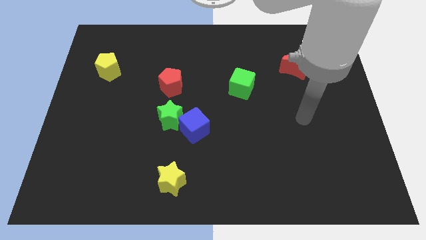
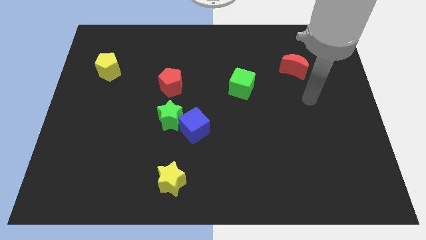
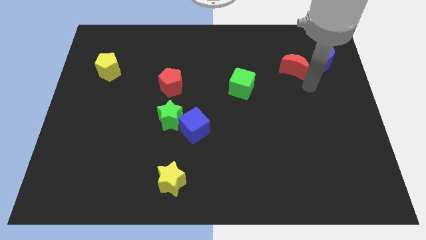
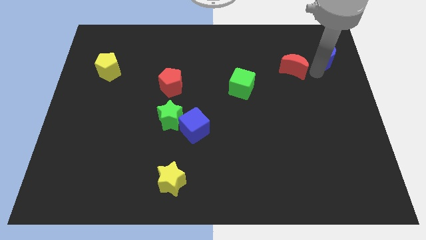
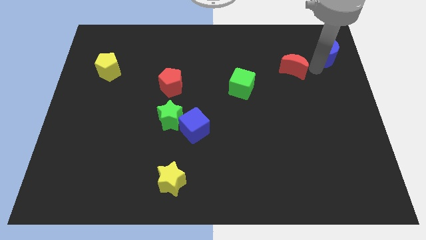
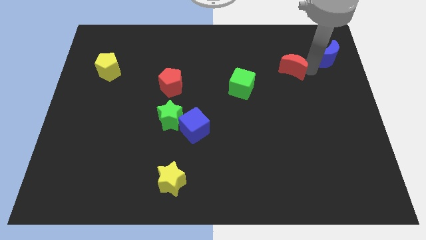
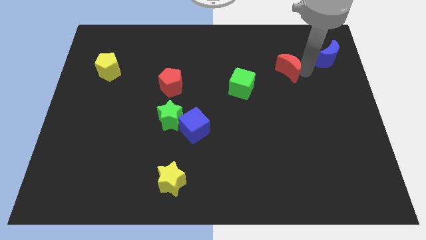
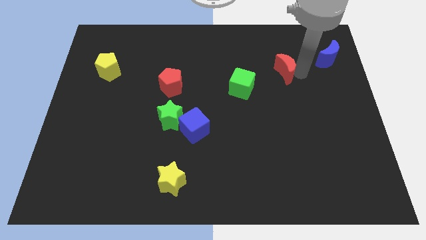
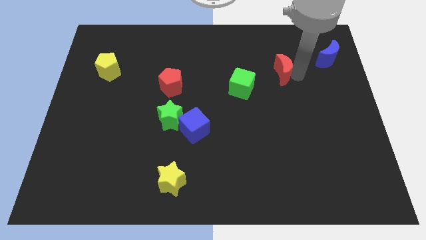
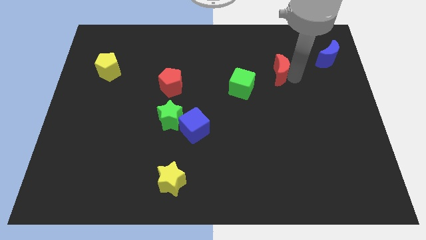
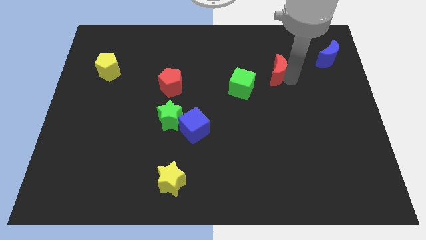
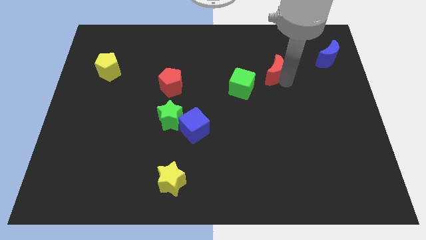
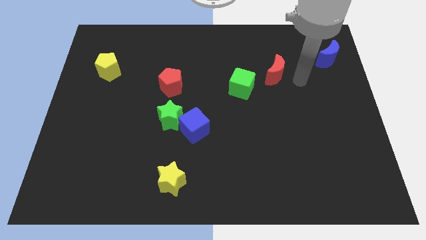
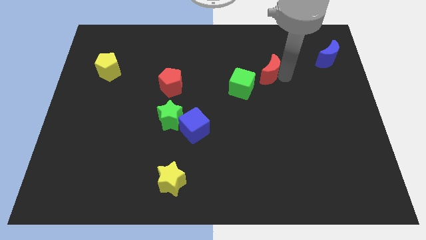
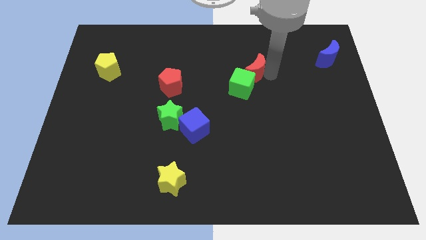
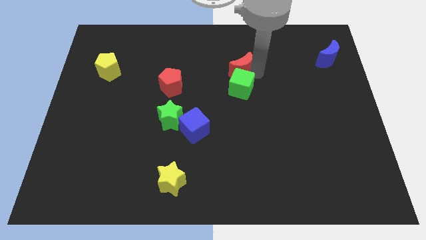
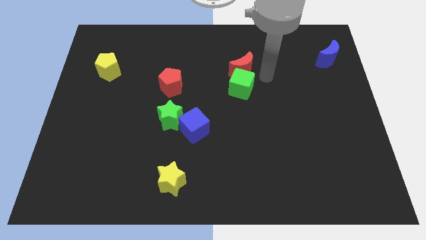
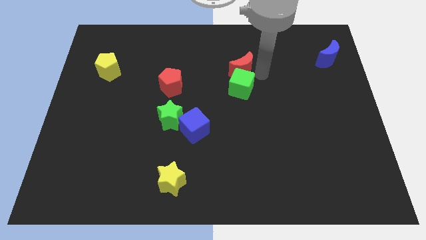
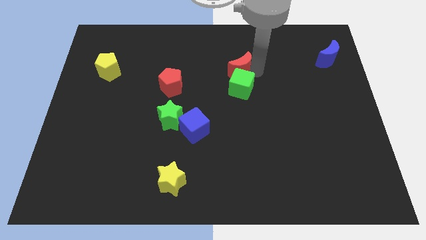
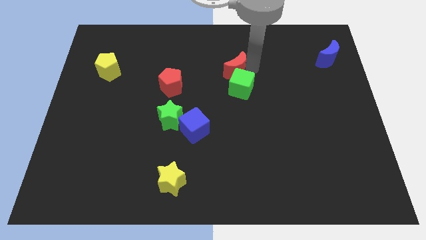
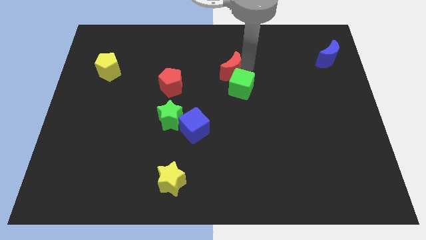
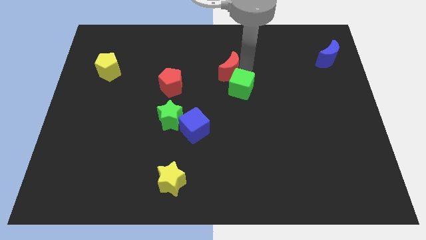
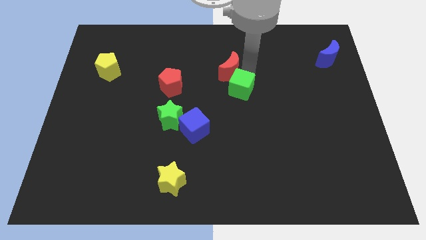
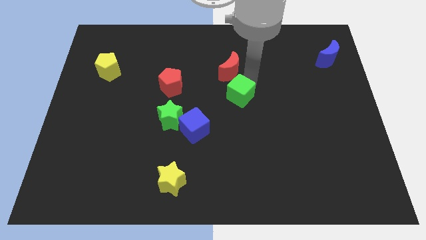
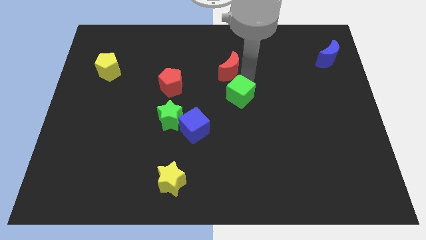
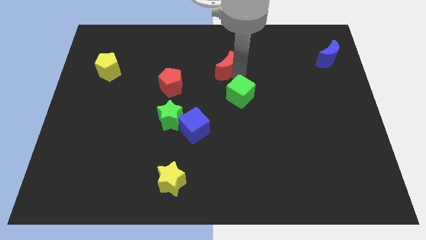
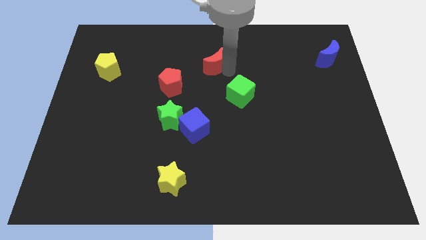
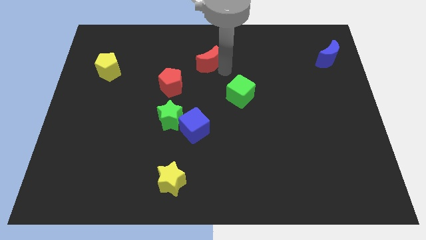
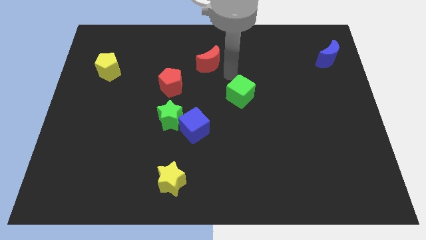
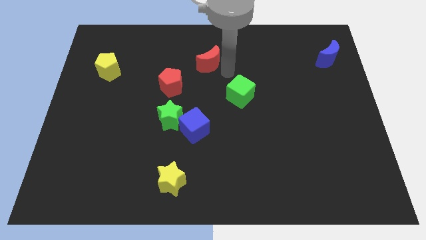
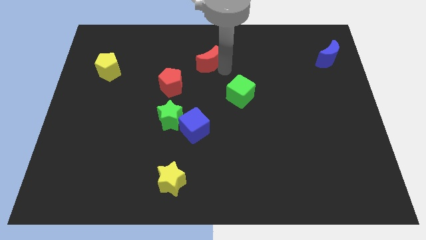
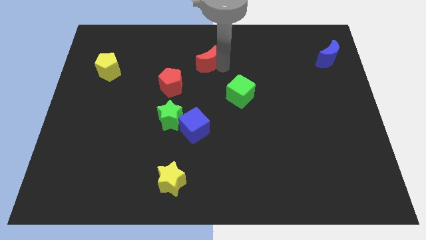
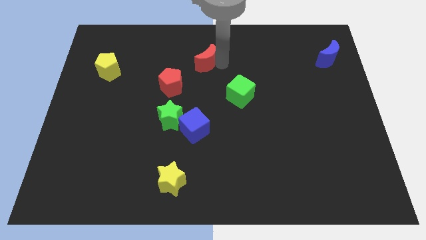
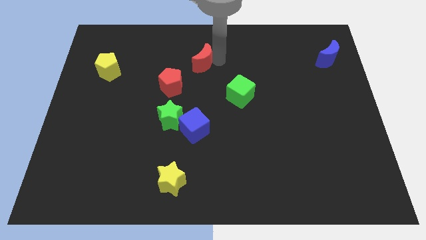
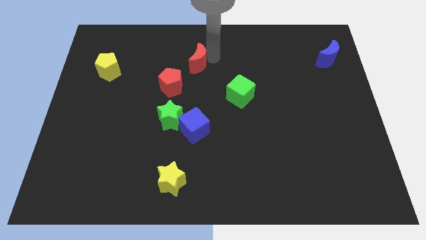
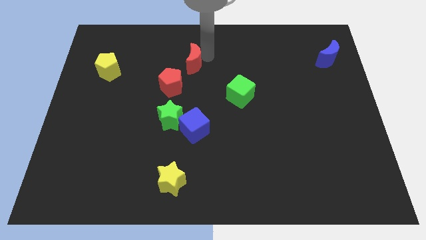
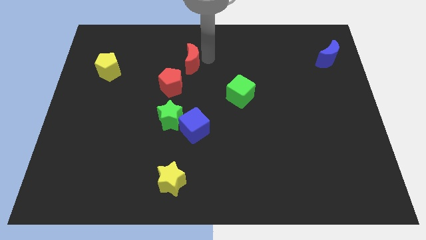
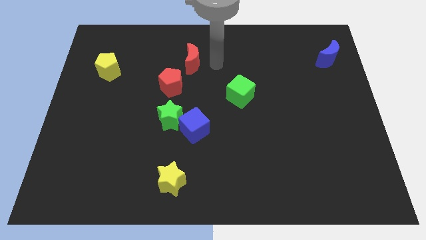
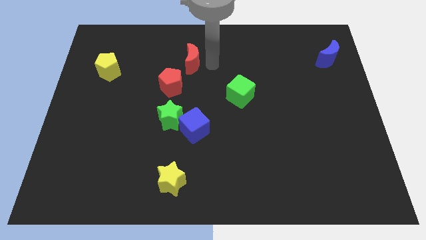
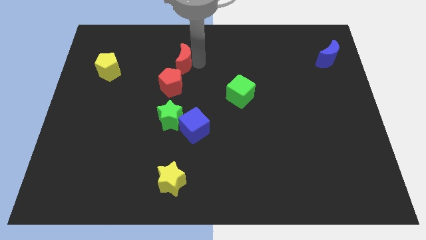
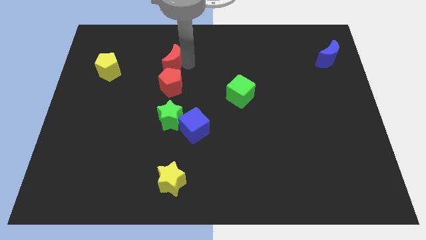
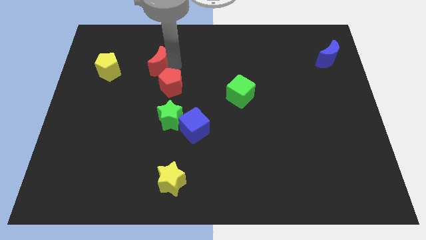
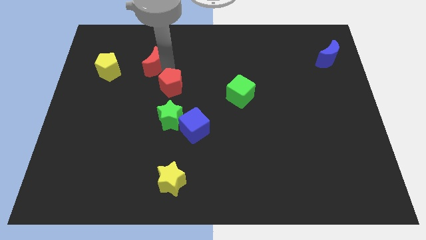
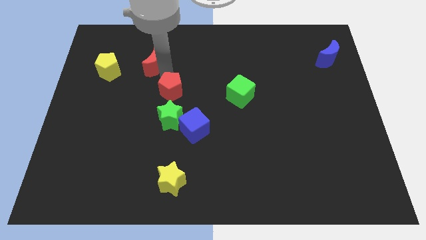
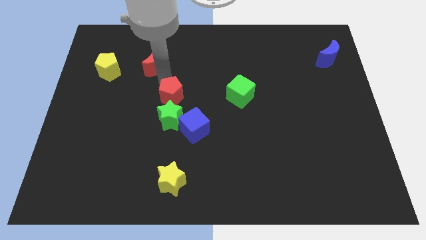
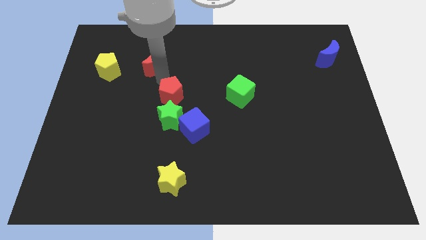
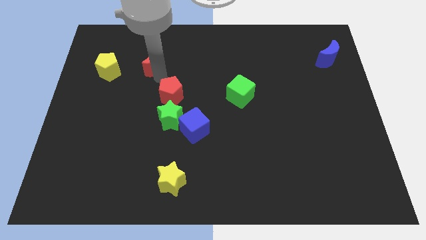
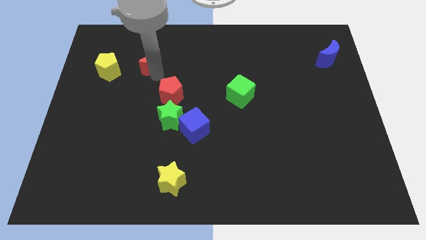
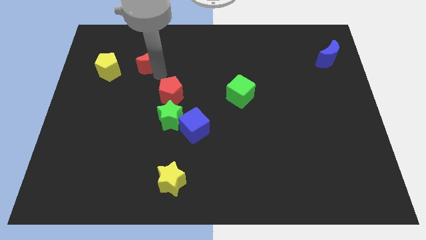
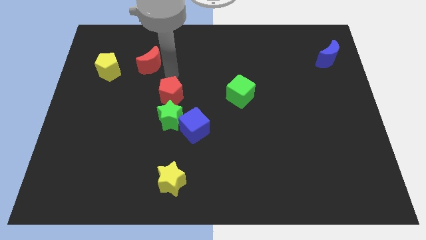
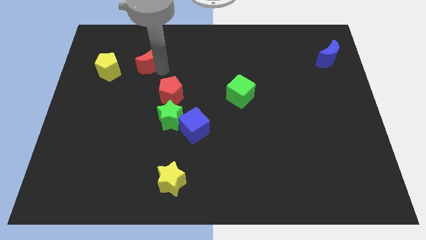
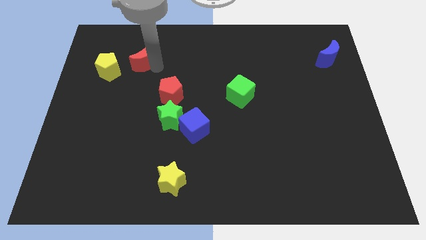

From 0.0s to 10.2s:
slide the red moon diagonally up and to the right of the yellow pentagon

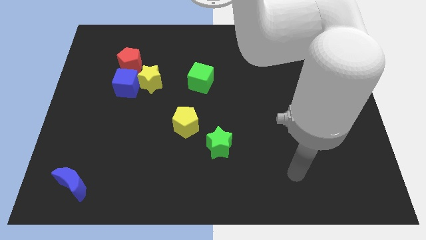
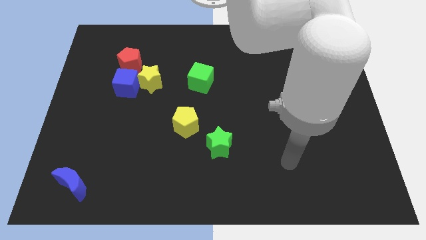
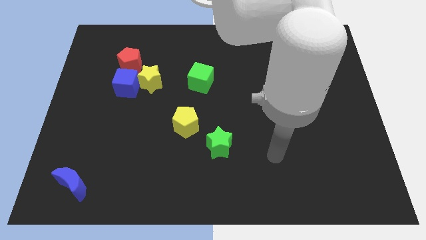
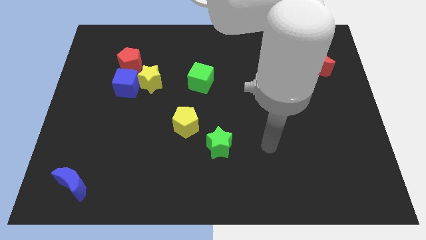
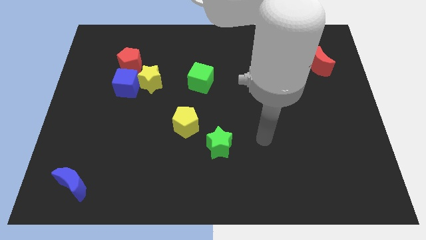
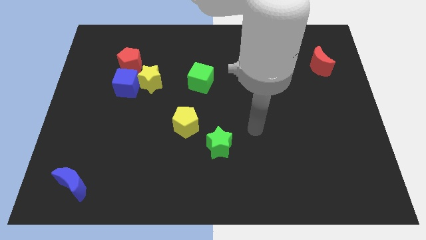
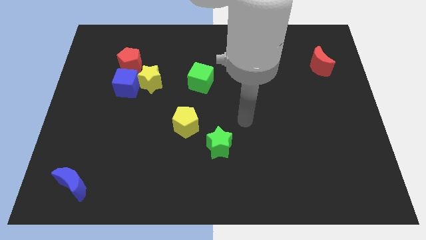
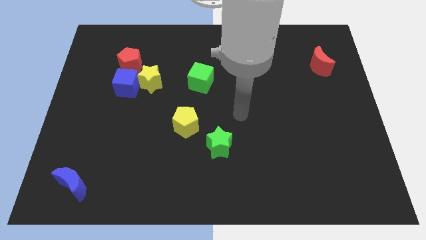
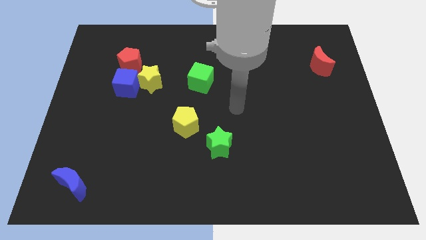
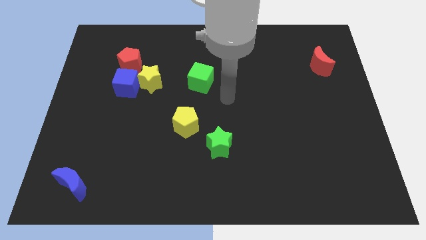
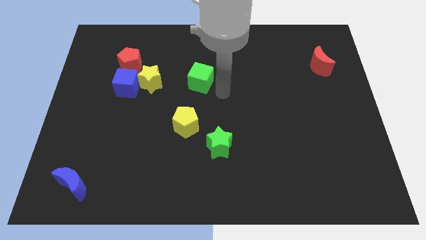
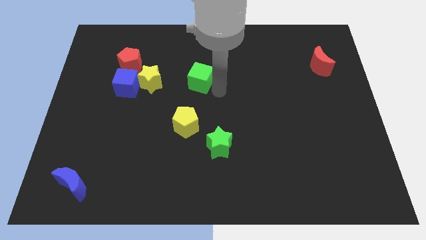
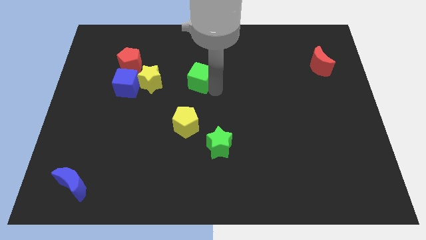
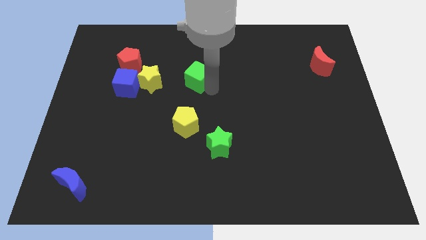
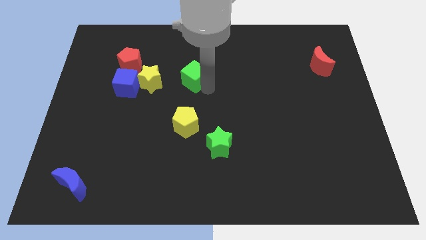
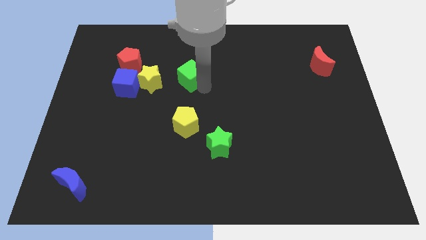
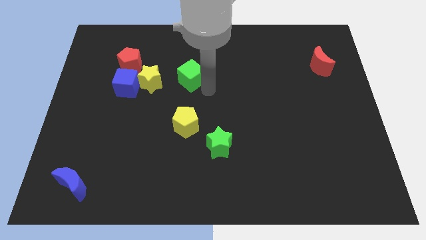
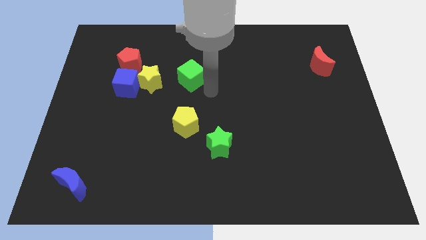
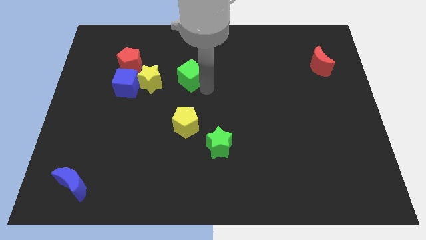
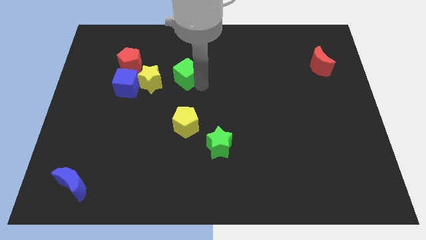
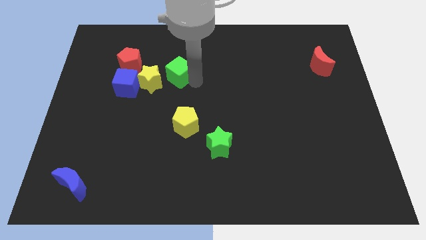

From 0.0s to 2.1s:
push the green cube just right of the red pentagon
